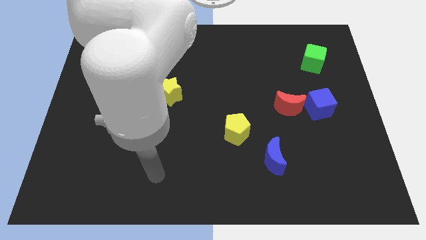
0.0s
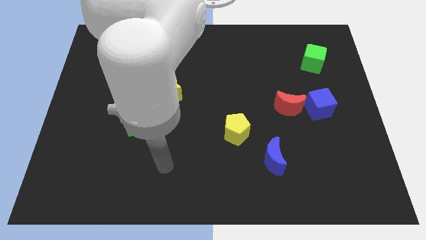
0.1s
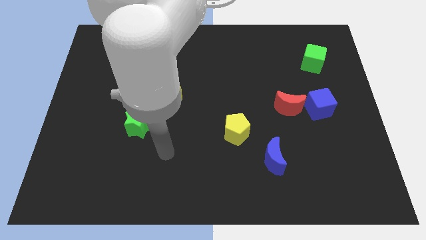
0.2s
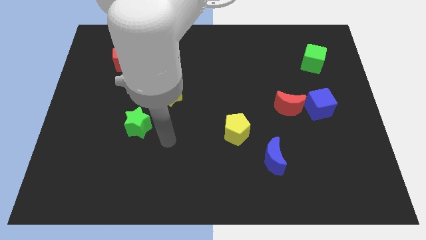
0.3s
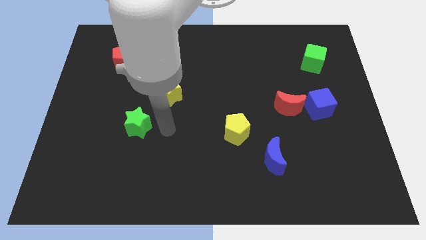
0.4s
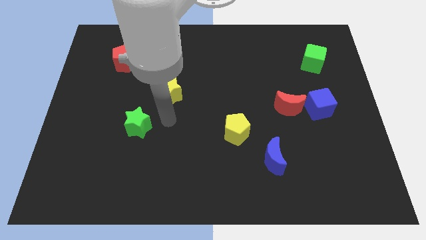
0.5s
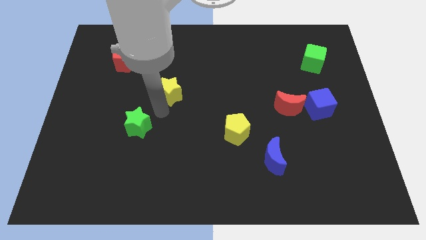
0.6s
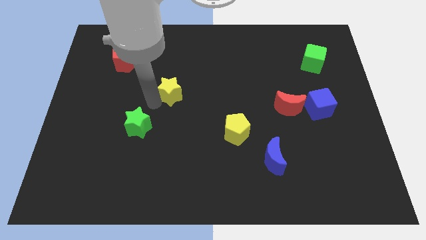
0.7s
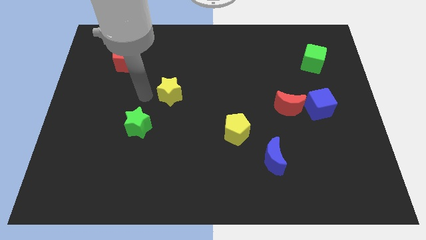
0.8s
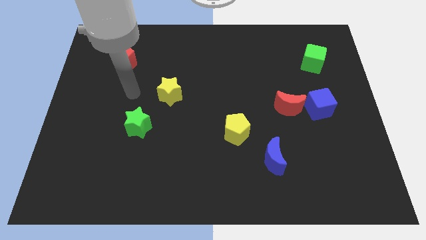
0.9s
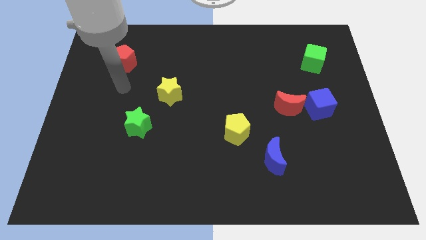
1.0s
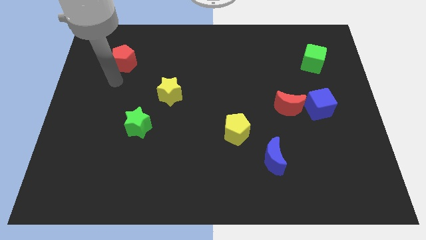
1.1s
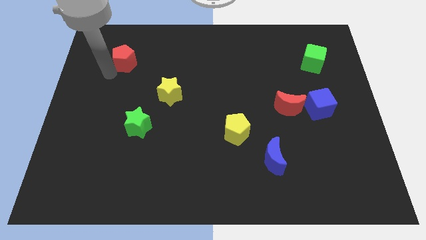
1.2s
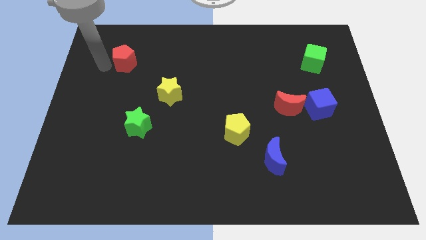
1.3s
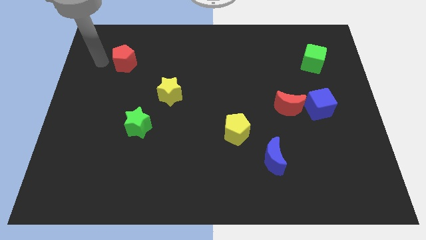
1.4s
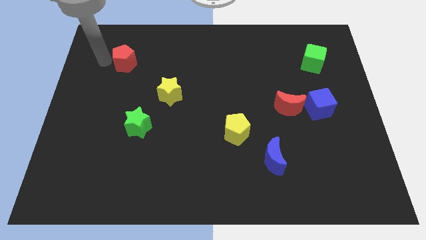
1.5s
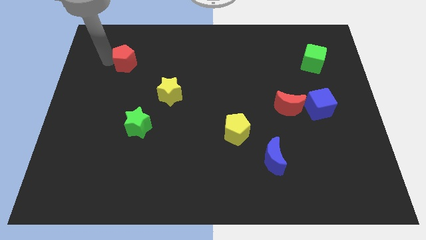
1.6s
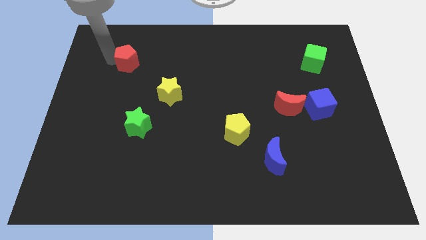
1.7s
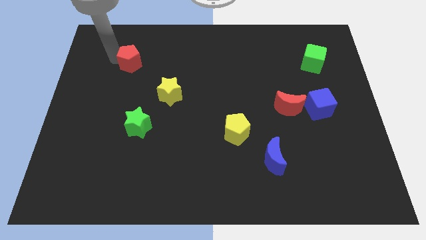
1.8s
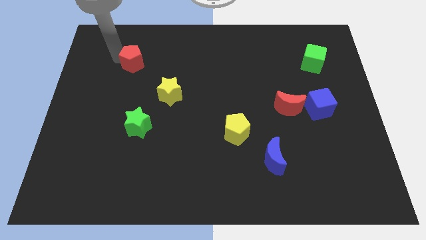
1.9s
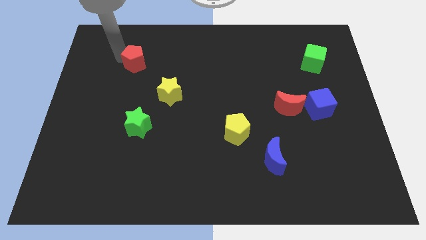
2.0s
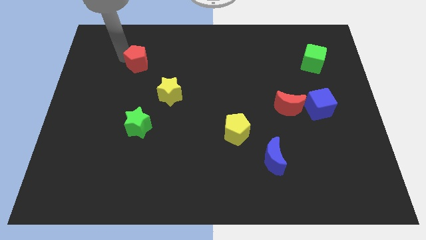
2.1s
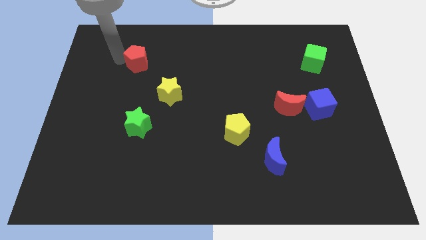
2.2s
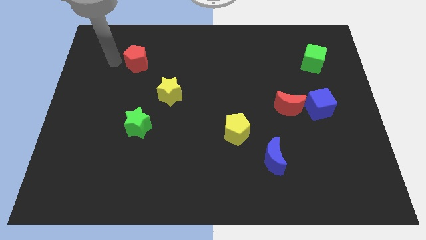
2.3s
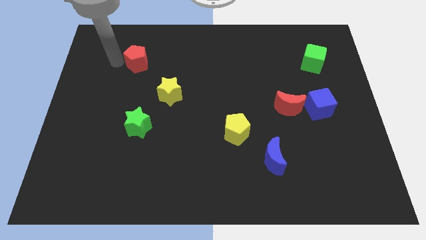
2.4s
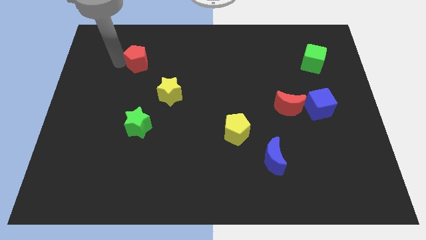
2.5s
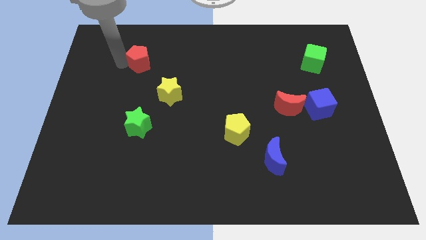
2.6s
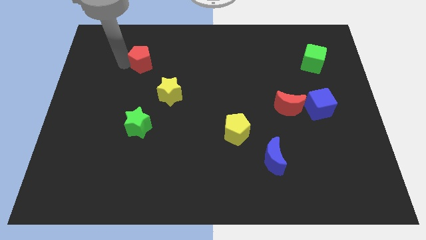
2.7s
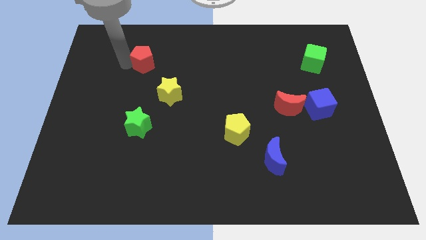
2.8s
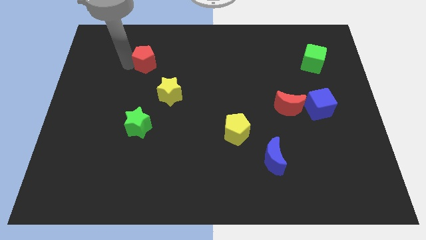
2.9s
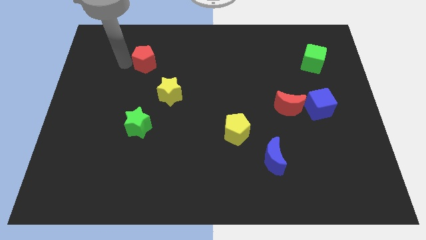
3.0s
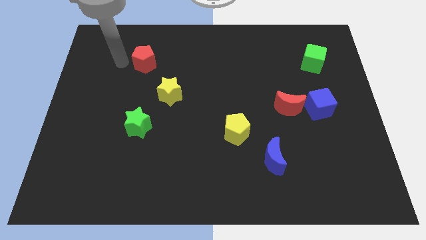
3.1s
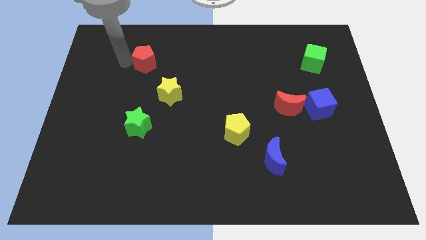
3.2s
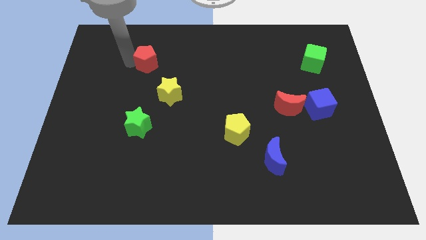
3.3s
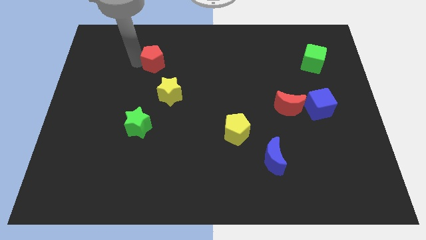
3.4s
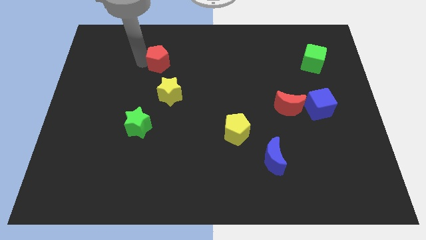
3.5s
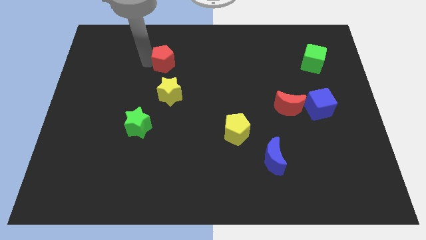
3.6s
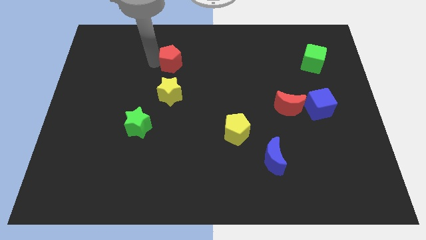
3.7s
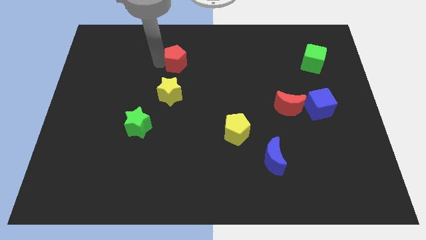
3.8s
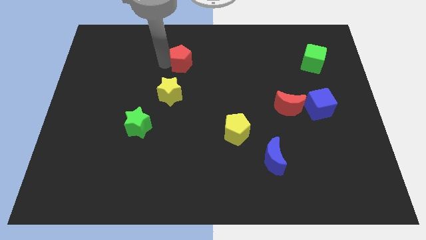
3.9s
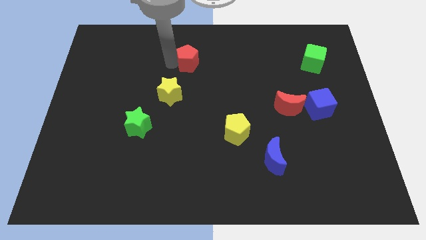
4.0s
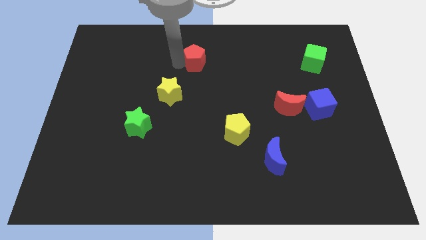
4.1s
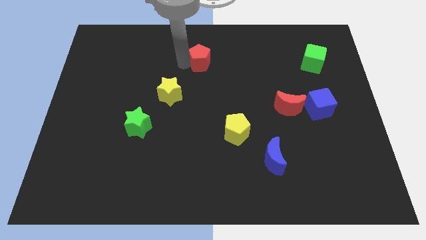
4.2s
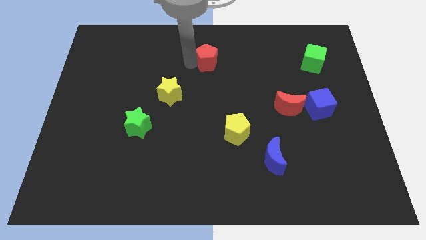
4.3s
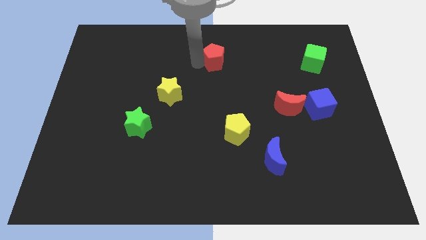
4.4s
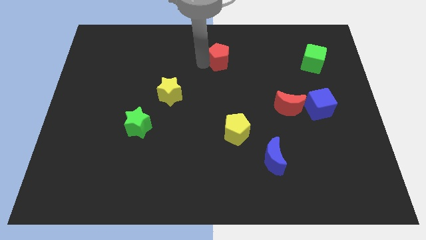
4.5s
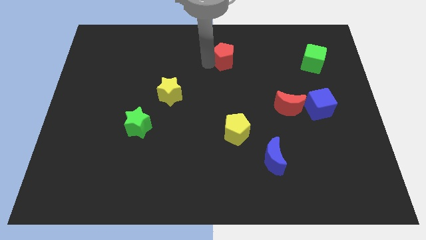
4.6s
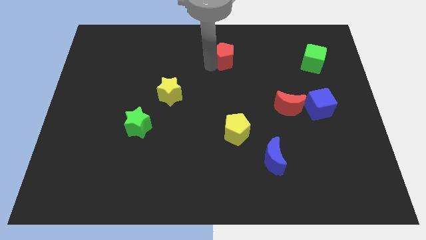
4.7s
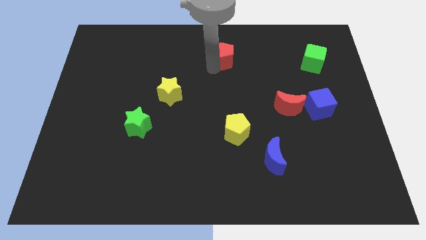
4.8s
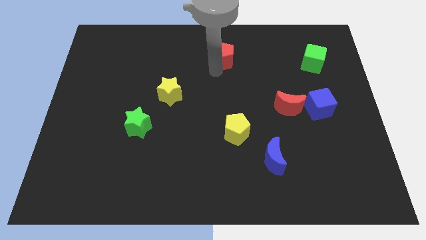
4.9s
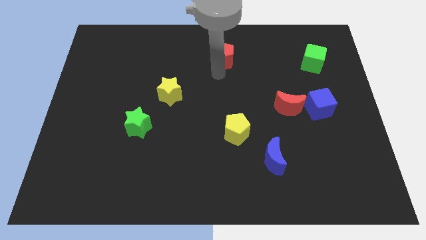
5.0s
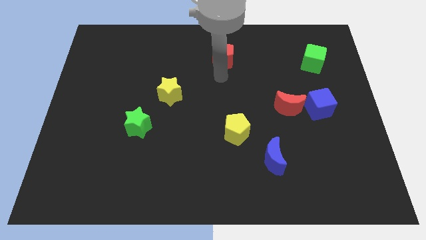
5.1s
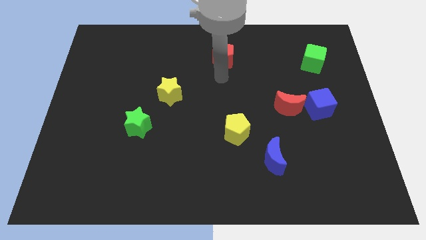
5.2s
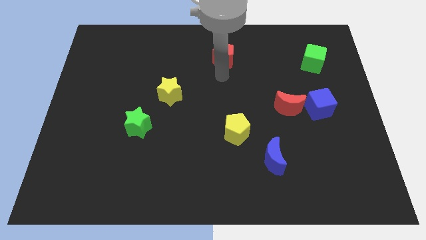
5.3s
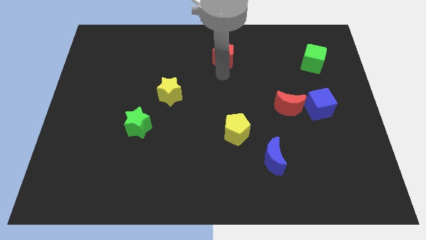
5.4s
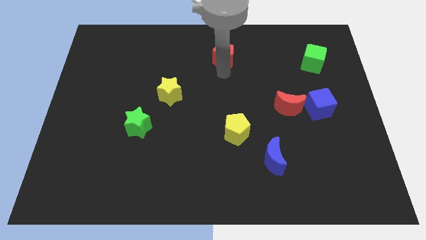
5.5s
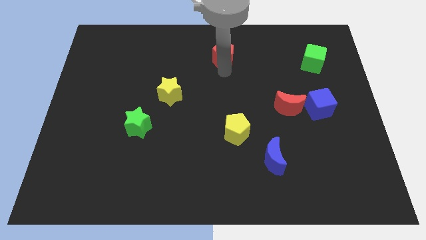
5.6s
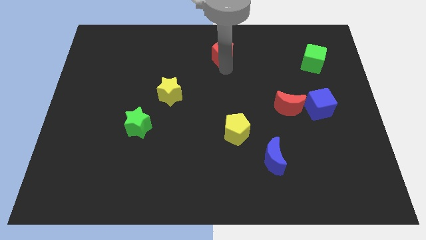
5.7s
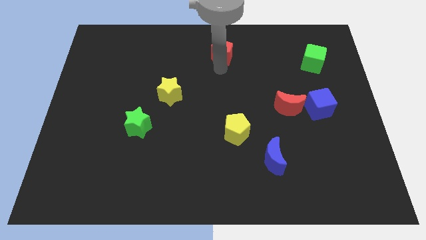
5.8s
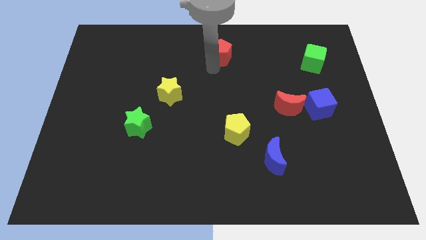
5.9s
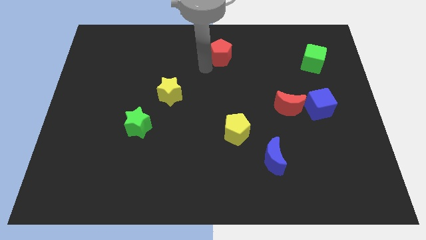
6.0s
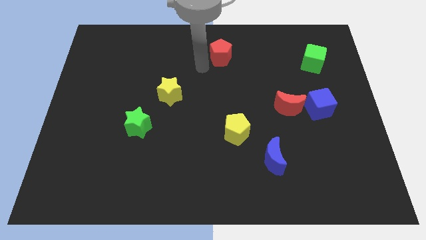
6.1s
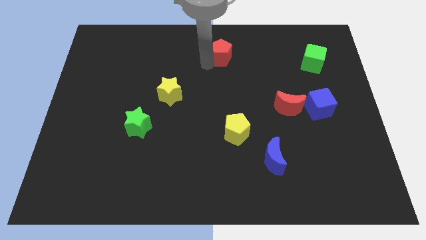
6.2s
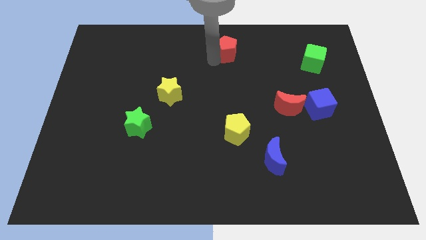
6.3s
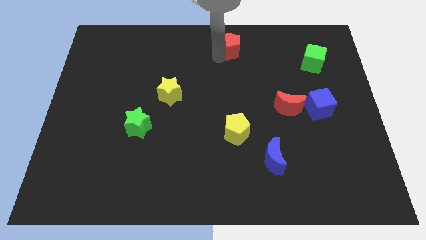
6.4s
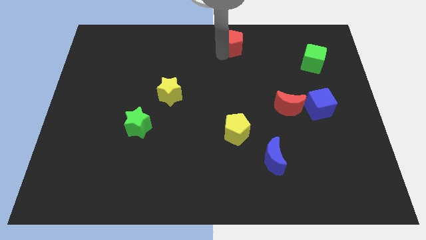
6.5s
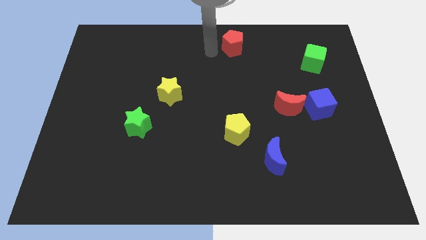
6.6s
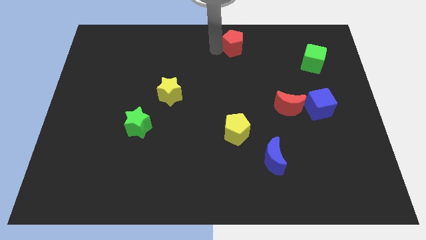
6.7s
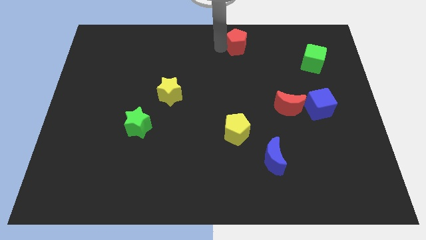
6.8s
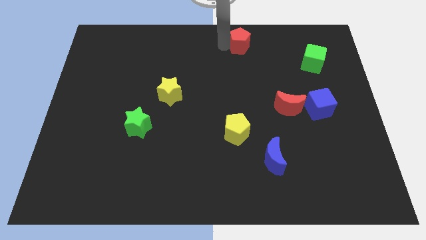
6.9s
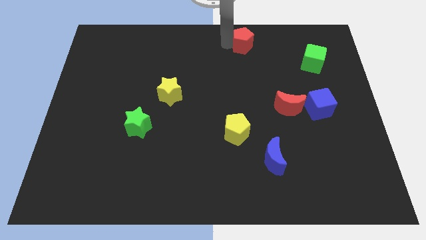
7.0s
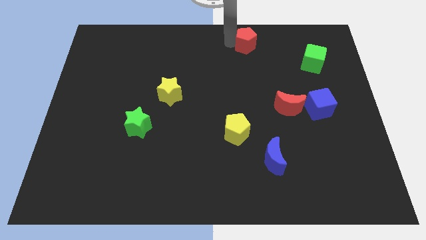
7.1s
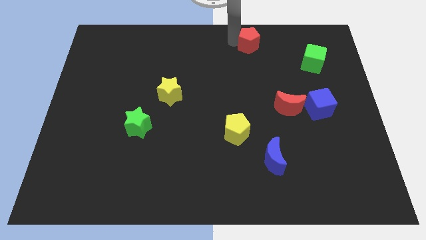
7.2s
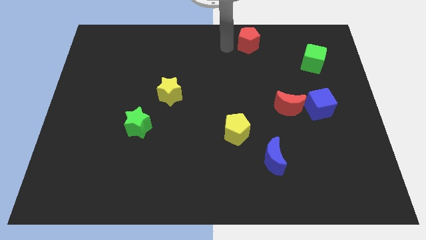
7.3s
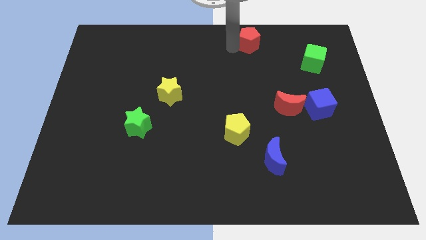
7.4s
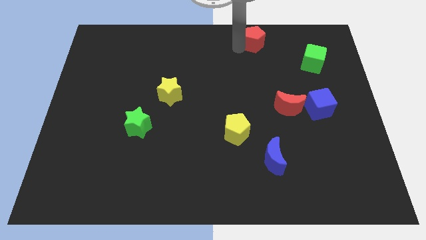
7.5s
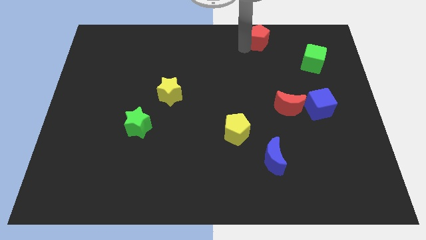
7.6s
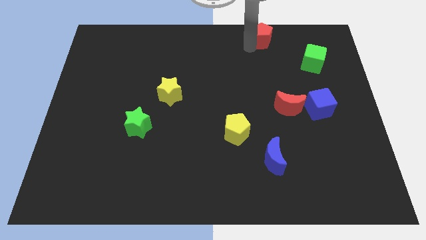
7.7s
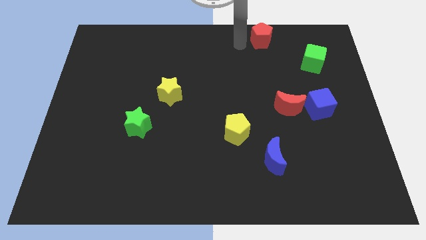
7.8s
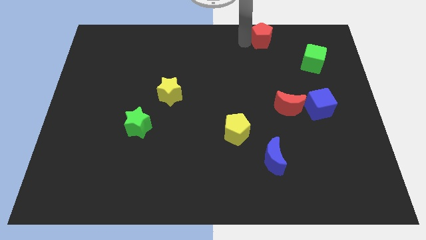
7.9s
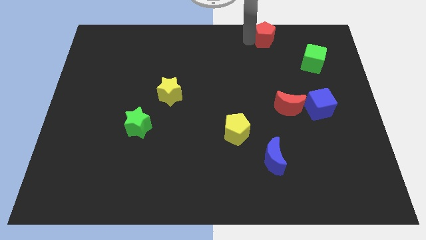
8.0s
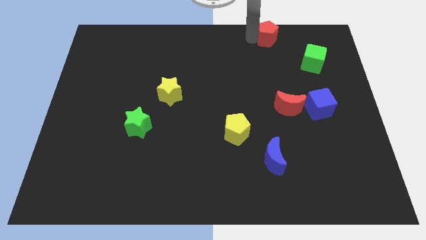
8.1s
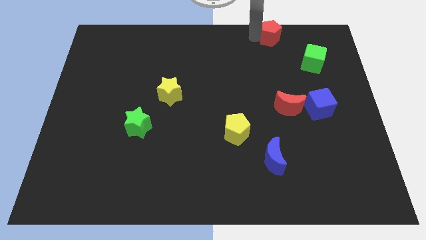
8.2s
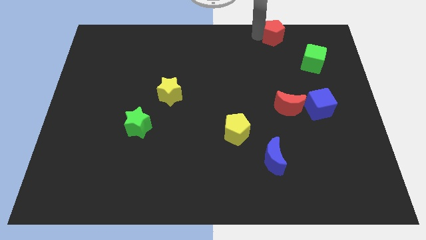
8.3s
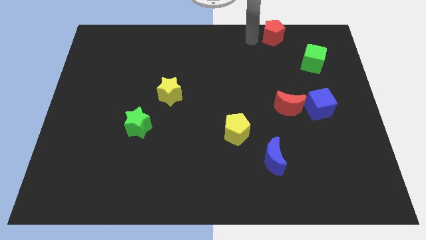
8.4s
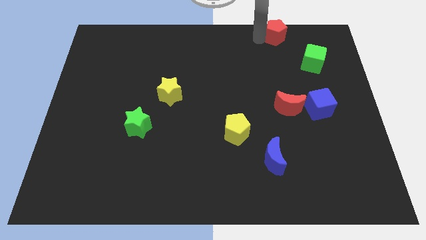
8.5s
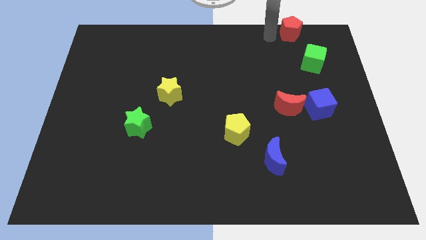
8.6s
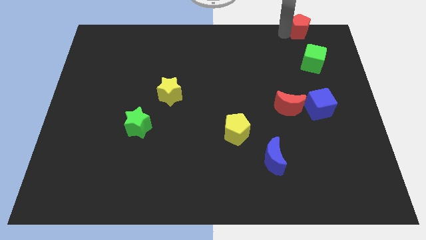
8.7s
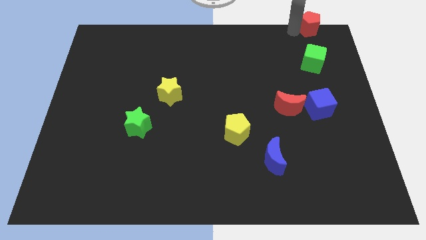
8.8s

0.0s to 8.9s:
slide the red pentagon to the upper right corner
